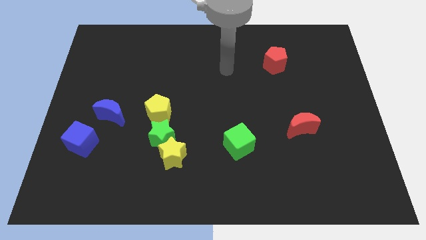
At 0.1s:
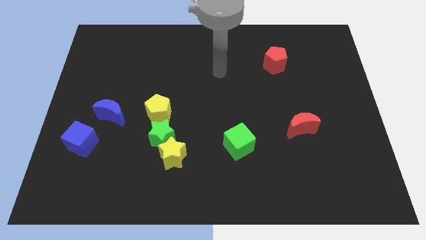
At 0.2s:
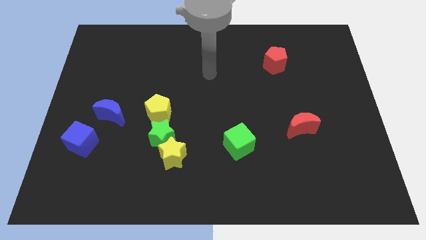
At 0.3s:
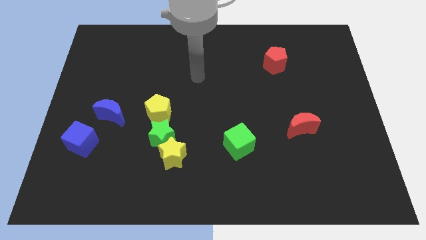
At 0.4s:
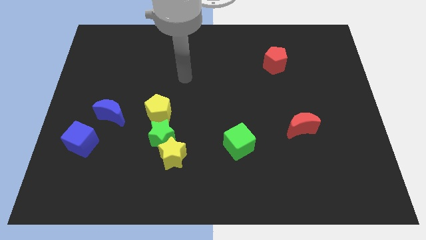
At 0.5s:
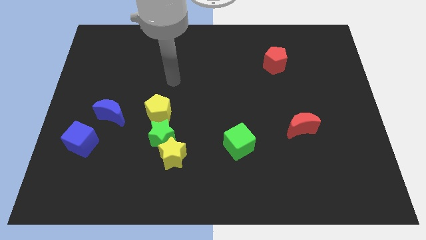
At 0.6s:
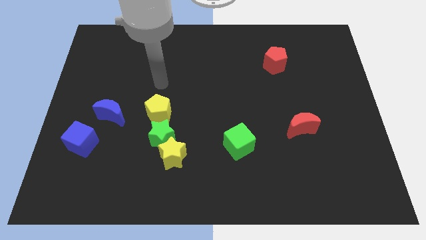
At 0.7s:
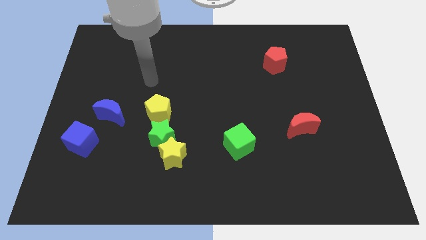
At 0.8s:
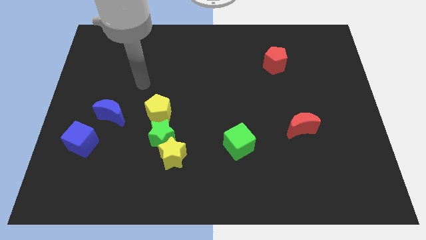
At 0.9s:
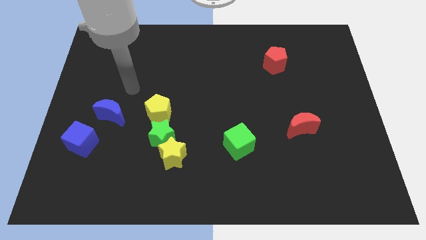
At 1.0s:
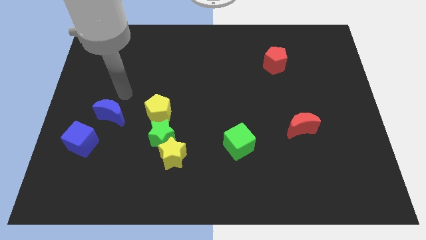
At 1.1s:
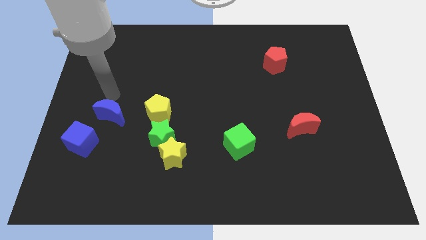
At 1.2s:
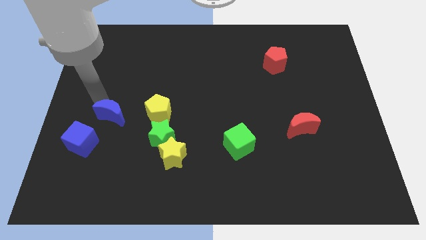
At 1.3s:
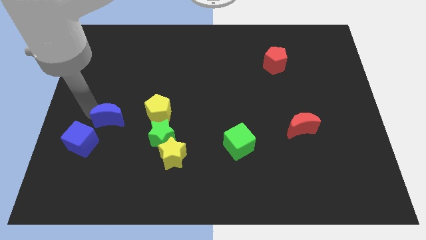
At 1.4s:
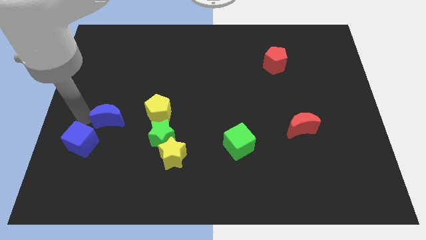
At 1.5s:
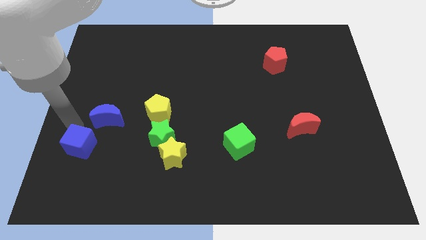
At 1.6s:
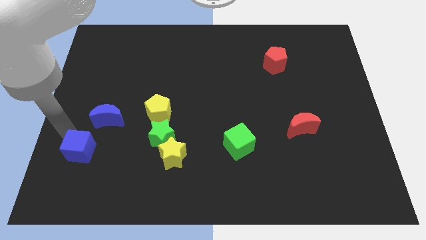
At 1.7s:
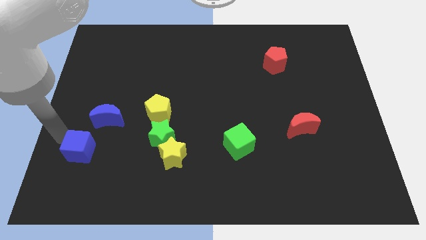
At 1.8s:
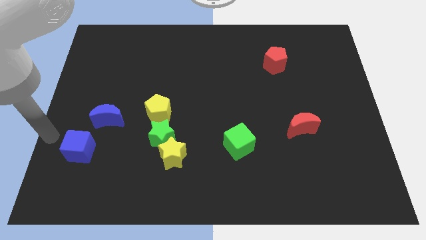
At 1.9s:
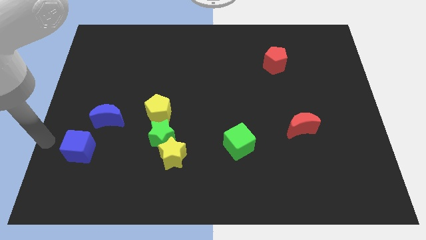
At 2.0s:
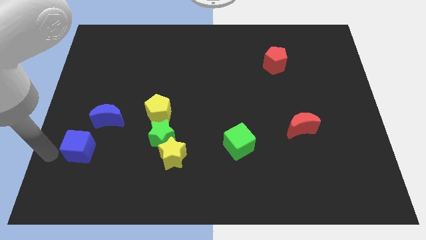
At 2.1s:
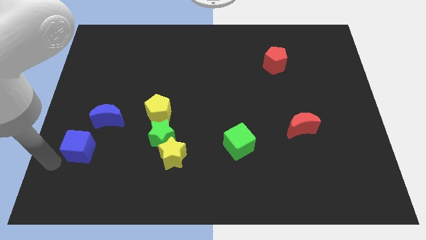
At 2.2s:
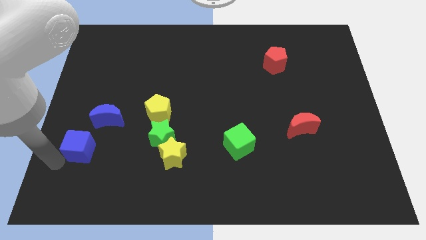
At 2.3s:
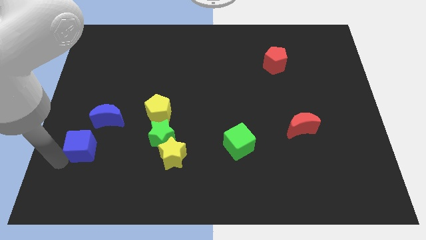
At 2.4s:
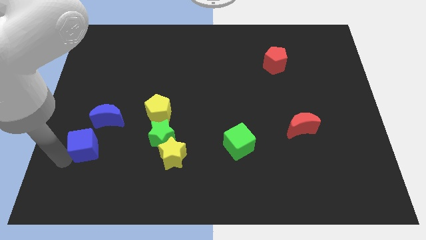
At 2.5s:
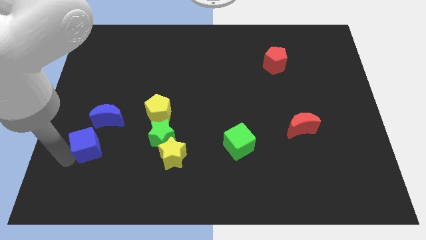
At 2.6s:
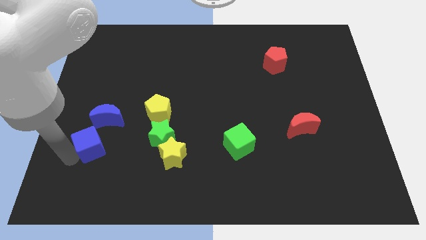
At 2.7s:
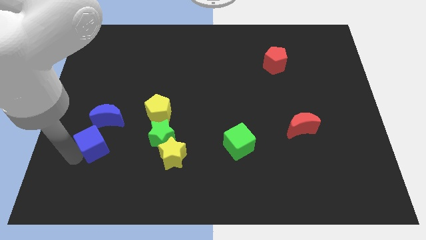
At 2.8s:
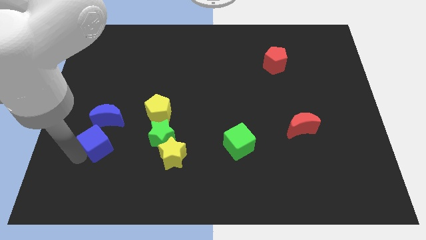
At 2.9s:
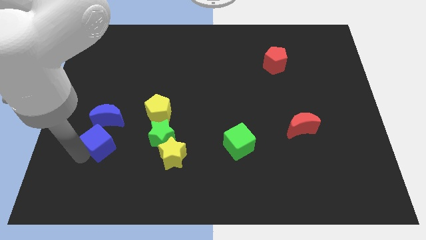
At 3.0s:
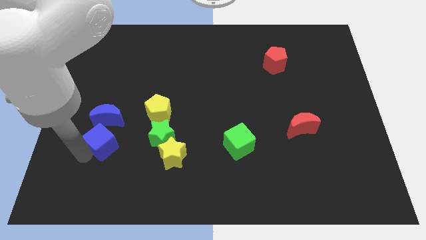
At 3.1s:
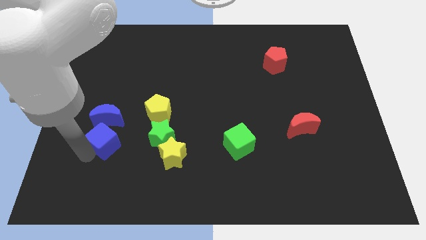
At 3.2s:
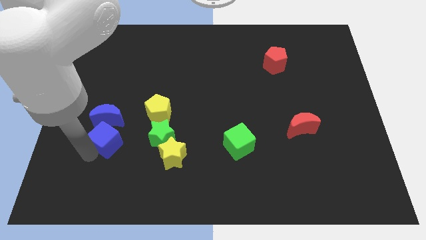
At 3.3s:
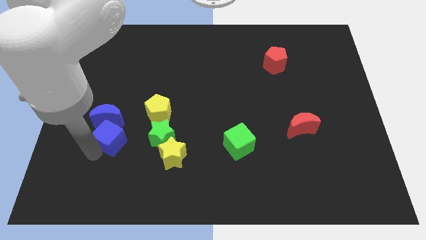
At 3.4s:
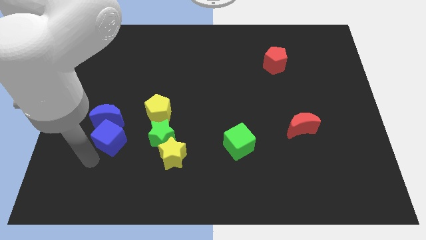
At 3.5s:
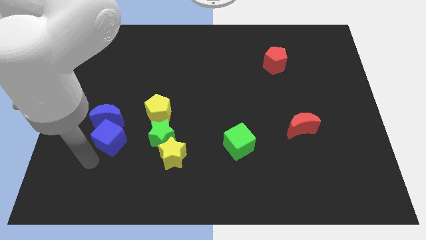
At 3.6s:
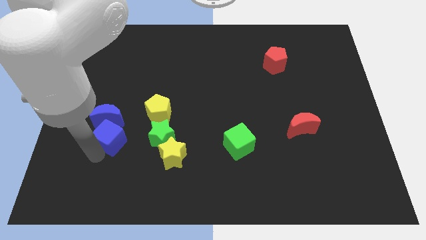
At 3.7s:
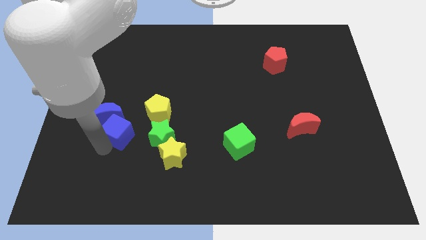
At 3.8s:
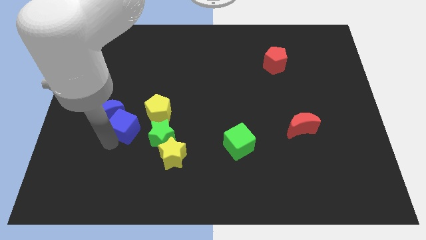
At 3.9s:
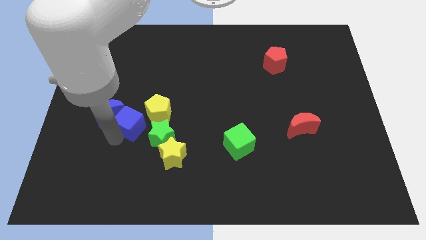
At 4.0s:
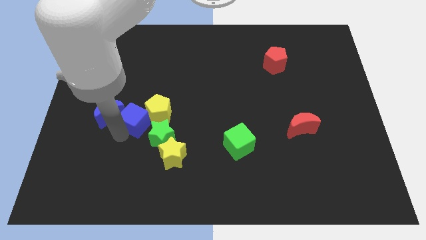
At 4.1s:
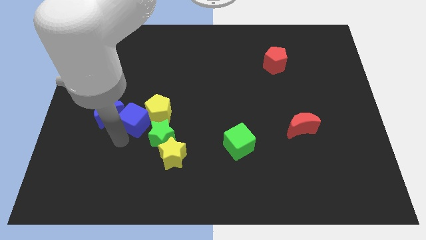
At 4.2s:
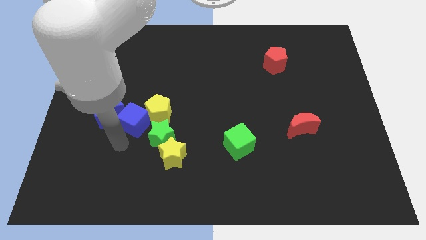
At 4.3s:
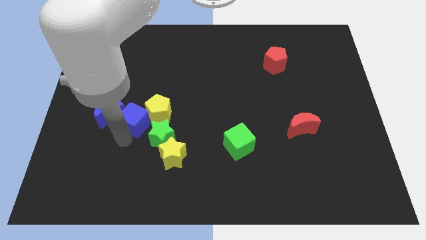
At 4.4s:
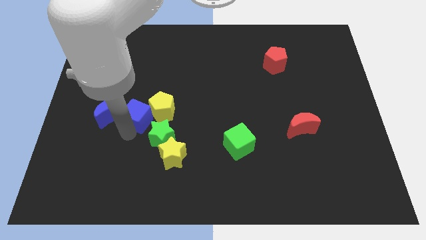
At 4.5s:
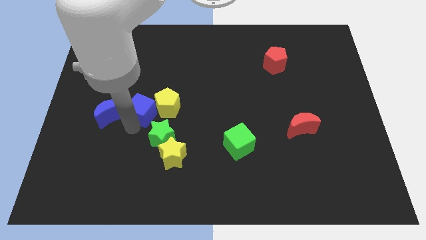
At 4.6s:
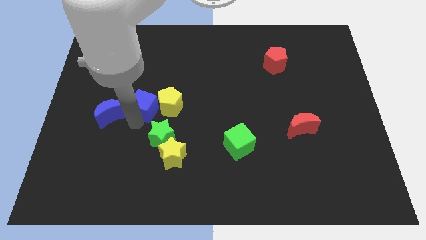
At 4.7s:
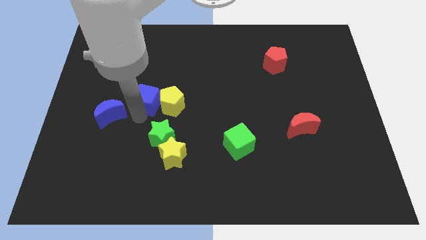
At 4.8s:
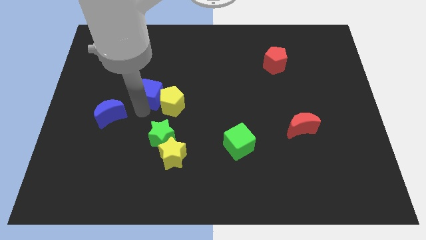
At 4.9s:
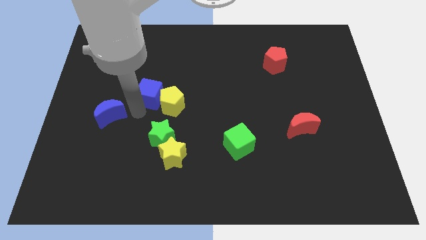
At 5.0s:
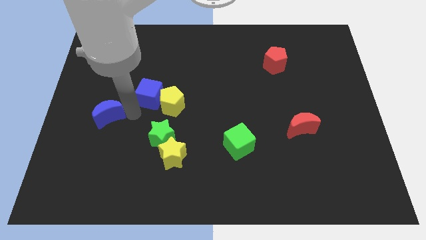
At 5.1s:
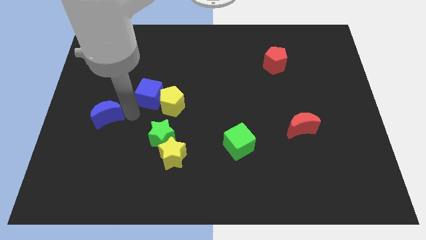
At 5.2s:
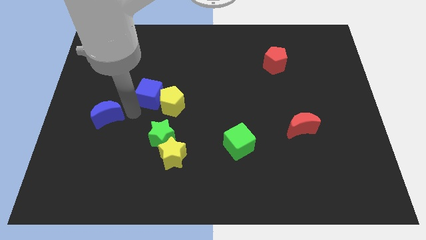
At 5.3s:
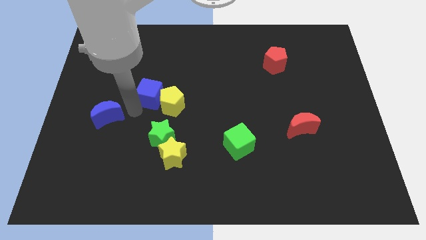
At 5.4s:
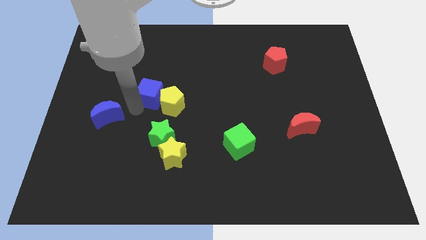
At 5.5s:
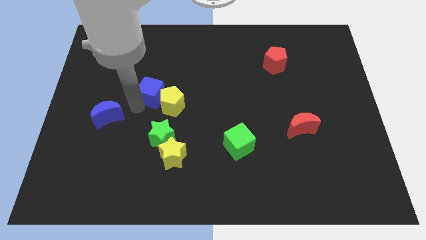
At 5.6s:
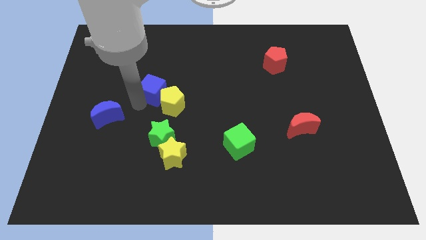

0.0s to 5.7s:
slide the blue cube up and then to the right

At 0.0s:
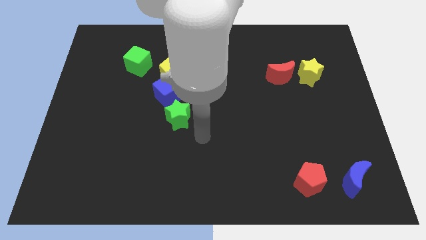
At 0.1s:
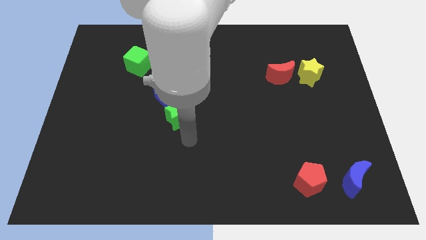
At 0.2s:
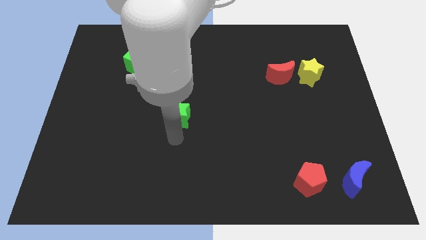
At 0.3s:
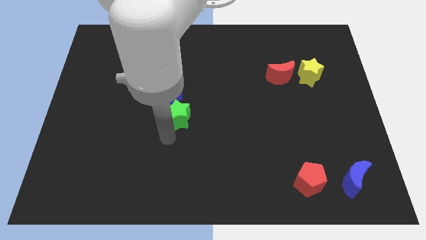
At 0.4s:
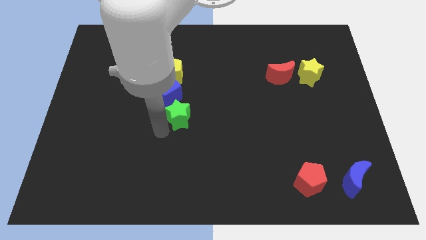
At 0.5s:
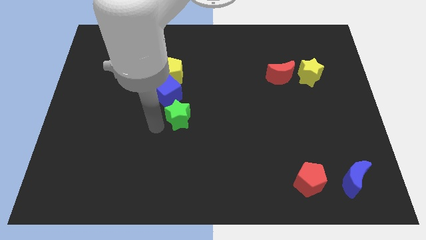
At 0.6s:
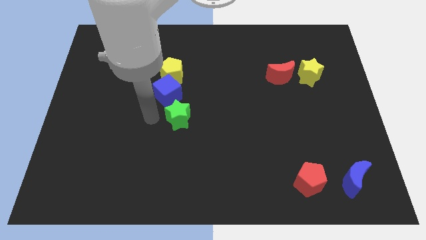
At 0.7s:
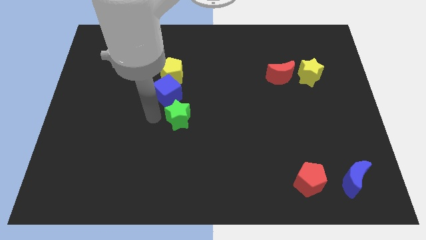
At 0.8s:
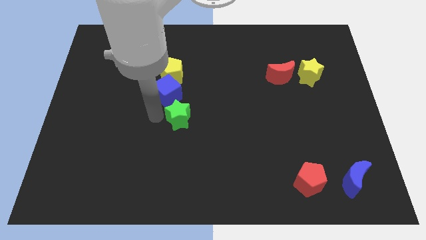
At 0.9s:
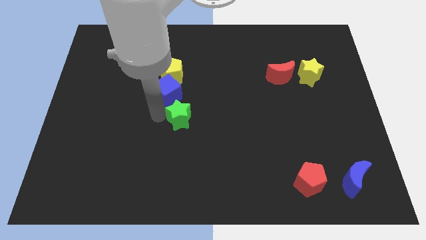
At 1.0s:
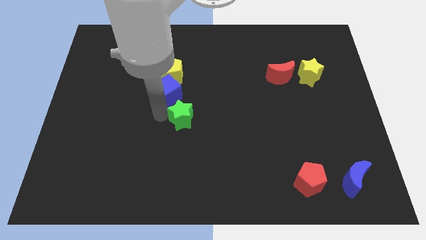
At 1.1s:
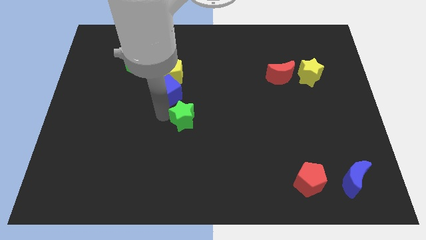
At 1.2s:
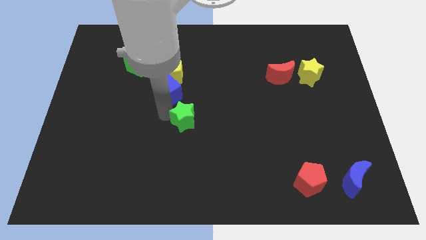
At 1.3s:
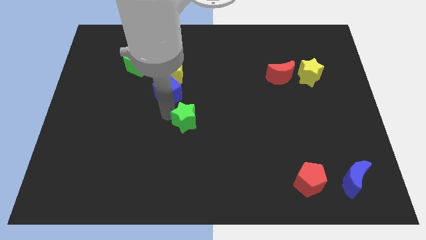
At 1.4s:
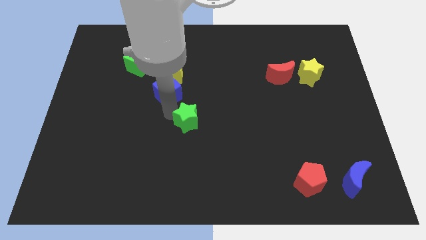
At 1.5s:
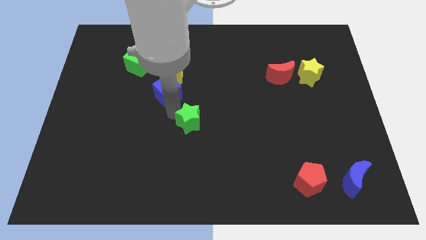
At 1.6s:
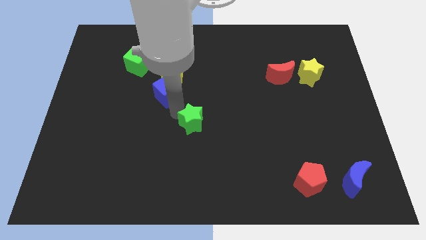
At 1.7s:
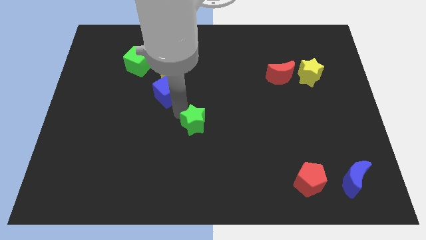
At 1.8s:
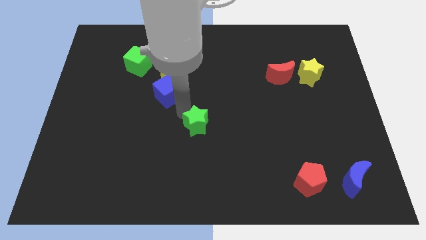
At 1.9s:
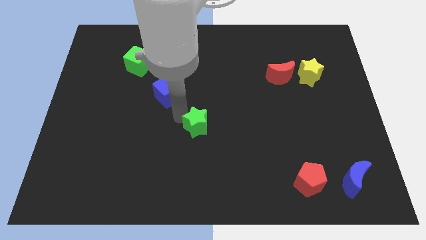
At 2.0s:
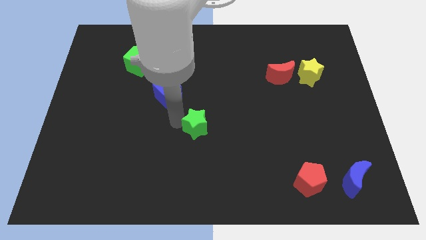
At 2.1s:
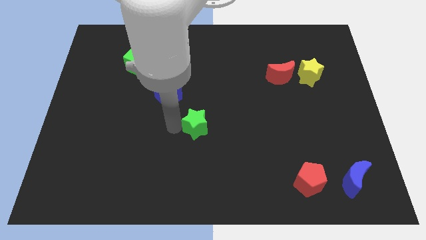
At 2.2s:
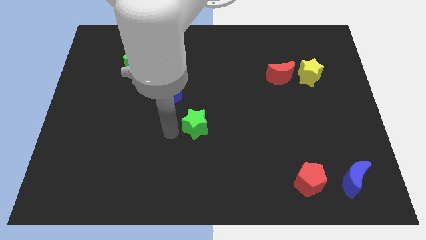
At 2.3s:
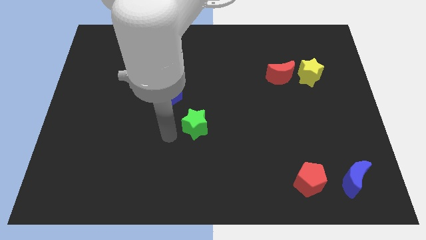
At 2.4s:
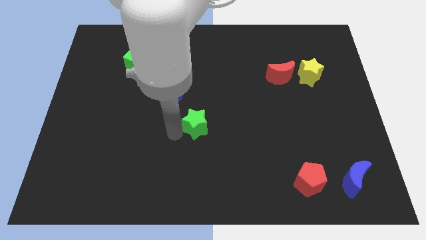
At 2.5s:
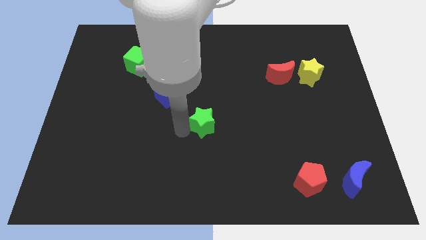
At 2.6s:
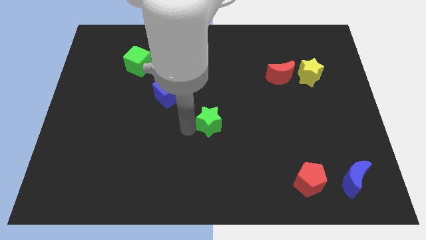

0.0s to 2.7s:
push the green star to the right somewhat
